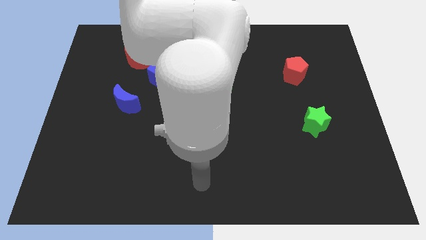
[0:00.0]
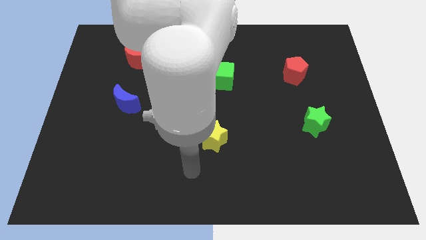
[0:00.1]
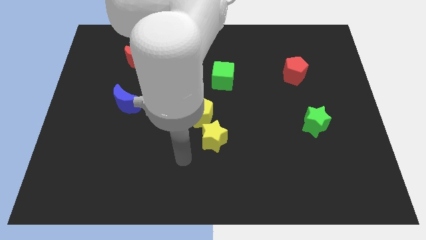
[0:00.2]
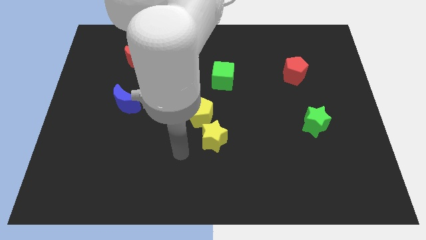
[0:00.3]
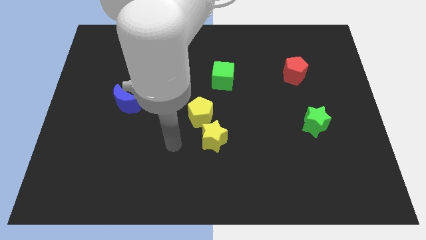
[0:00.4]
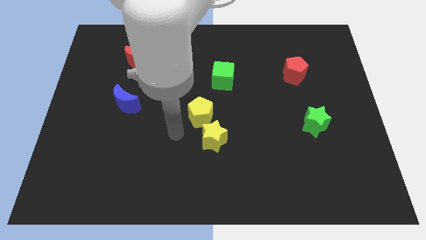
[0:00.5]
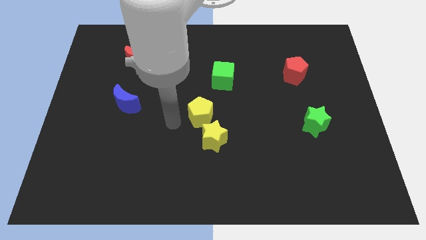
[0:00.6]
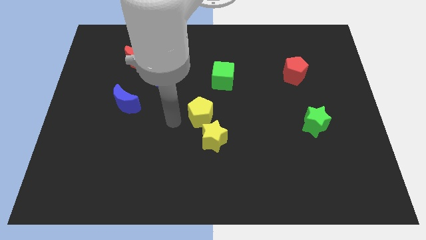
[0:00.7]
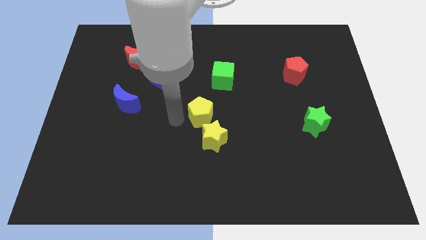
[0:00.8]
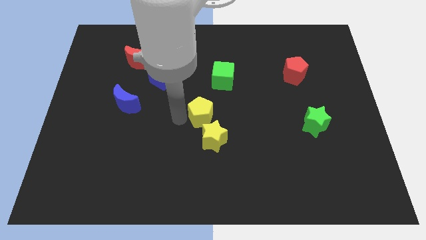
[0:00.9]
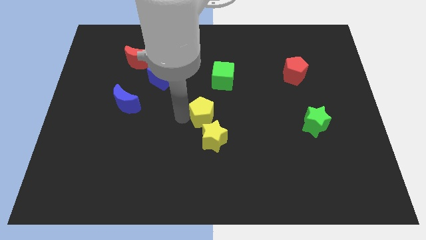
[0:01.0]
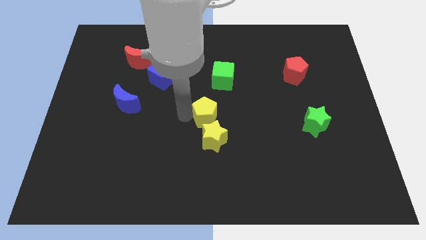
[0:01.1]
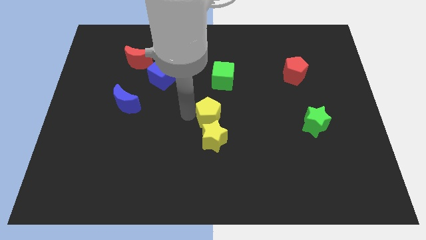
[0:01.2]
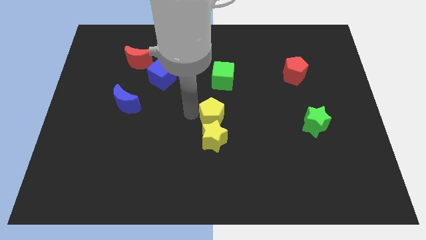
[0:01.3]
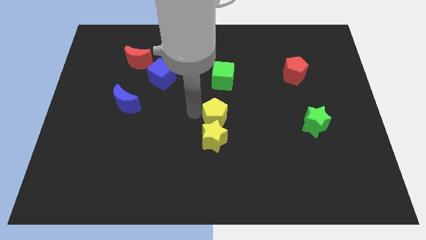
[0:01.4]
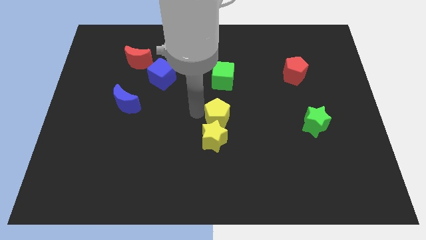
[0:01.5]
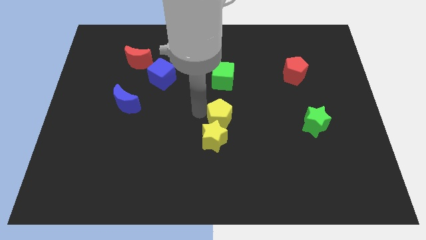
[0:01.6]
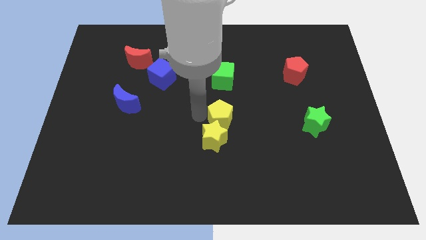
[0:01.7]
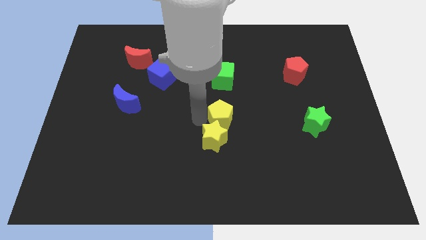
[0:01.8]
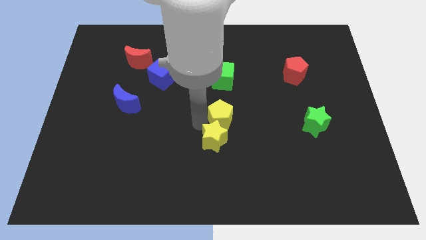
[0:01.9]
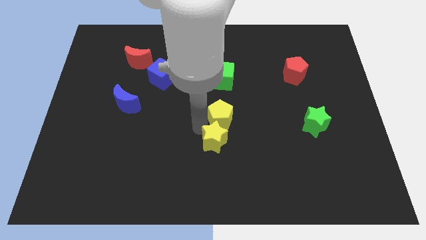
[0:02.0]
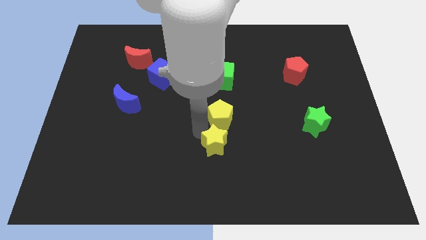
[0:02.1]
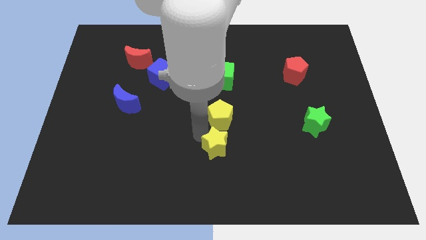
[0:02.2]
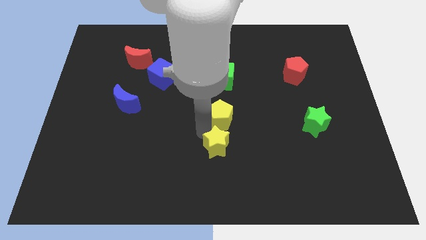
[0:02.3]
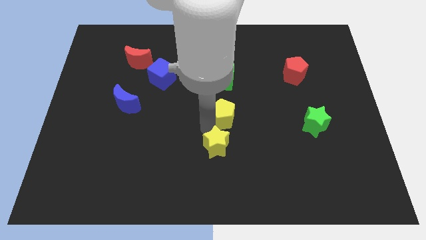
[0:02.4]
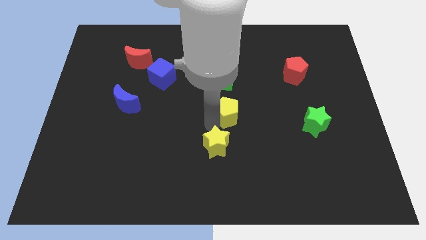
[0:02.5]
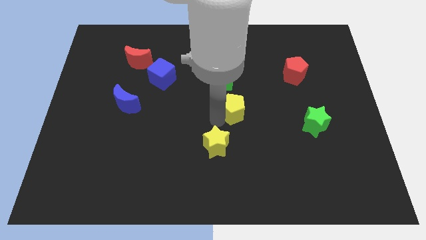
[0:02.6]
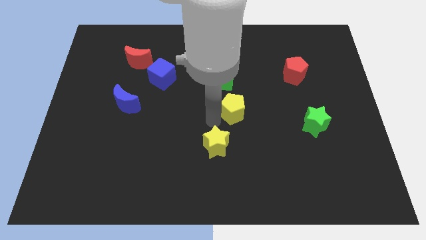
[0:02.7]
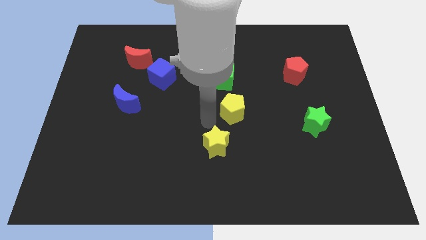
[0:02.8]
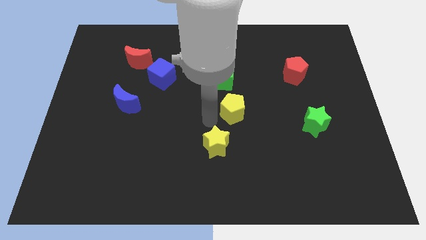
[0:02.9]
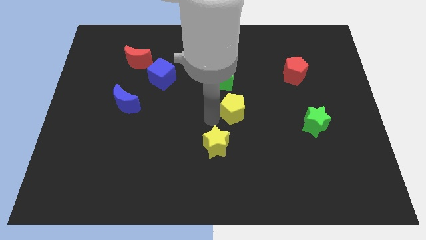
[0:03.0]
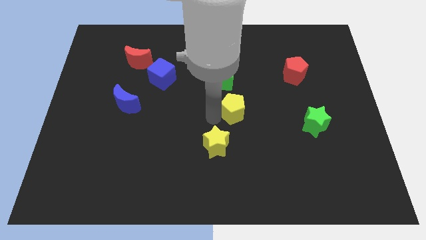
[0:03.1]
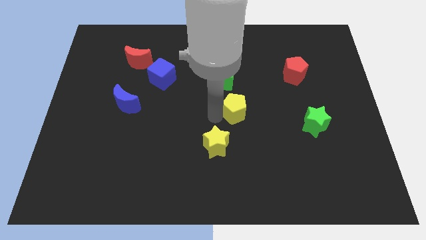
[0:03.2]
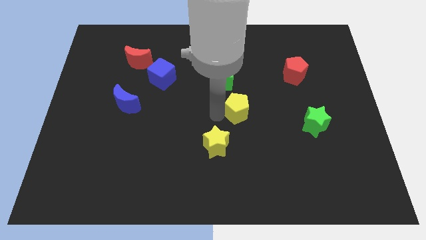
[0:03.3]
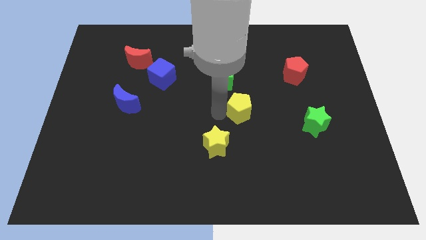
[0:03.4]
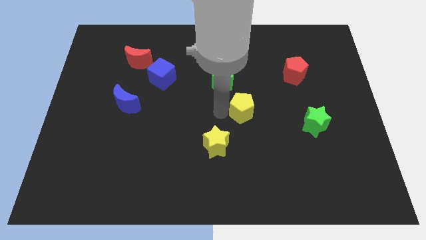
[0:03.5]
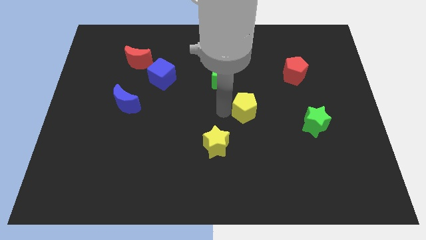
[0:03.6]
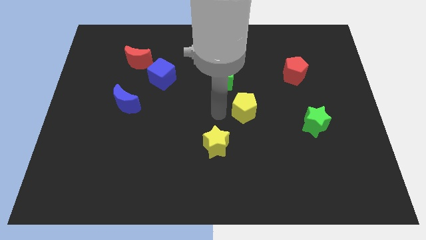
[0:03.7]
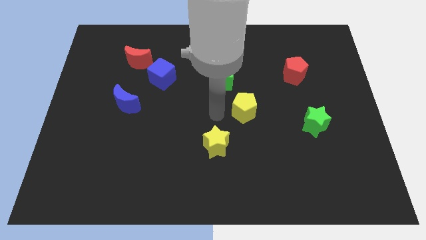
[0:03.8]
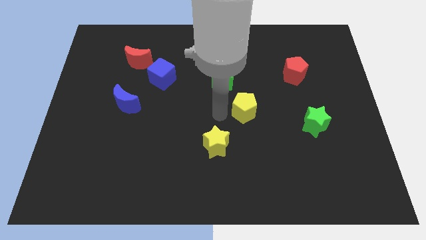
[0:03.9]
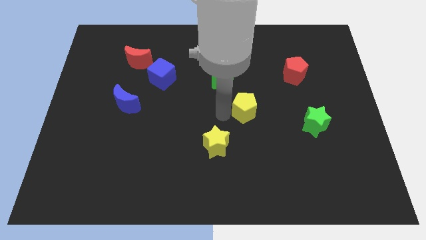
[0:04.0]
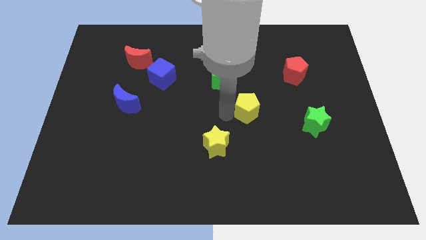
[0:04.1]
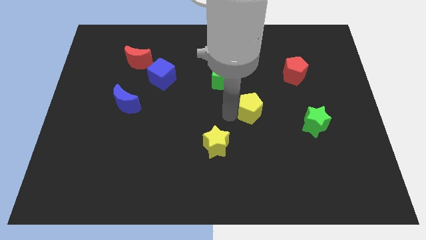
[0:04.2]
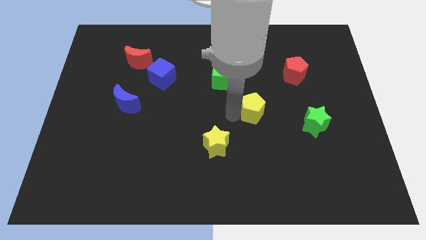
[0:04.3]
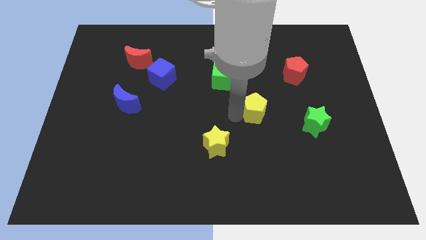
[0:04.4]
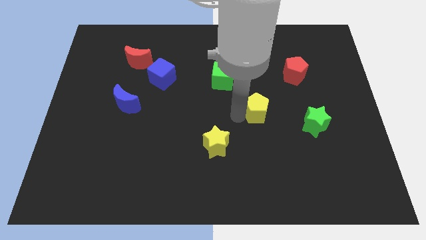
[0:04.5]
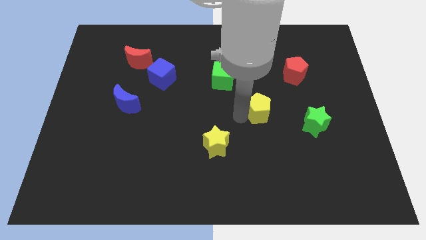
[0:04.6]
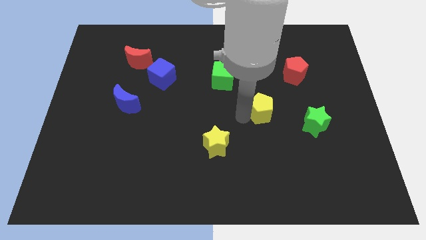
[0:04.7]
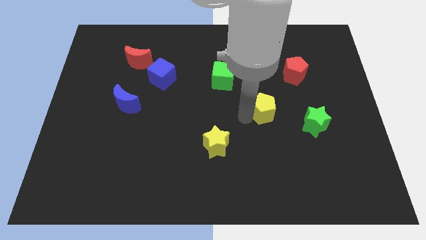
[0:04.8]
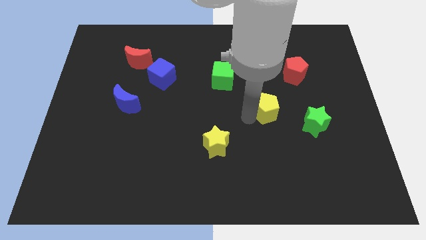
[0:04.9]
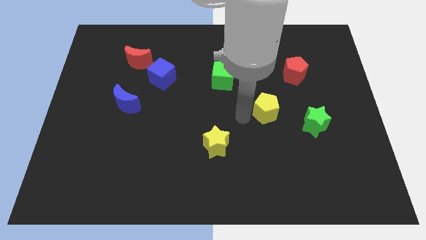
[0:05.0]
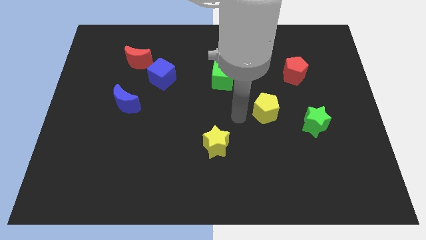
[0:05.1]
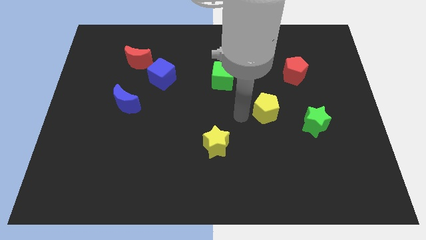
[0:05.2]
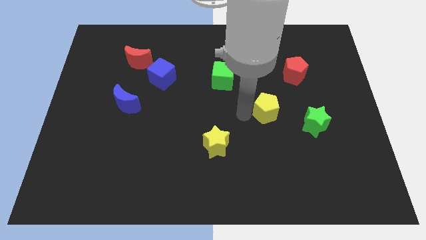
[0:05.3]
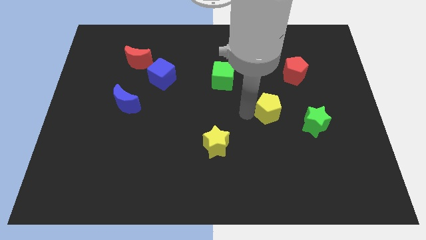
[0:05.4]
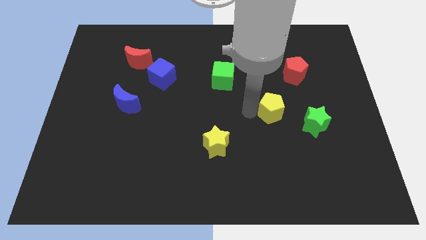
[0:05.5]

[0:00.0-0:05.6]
push the yellow pentagon to the top left side of the green star

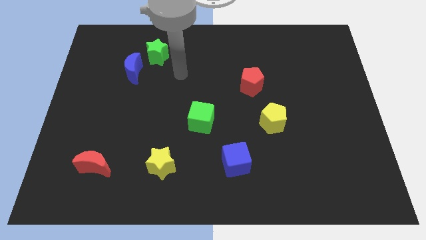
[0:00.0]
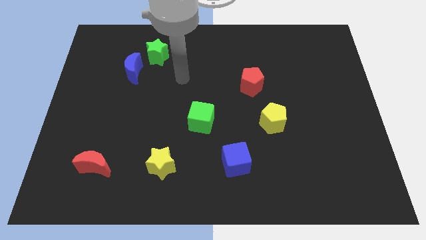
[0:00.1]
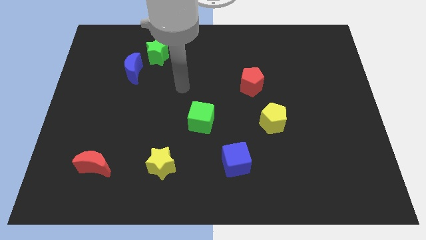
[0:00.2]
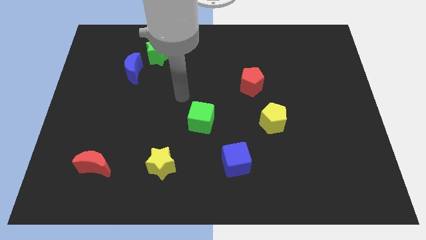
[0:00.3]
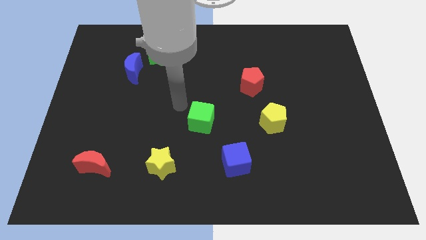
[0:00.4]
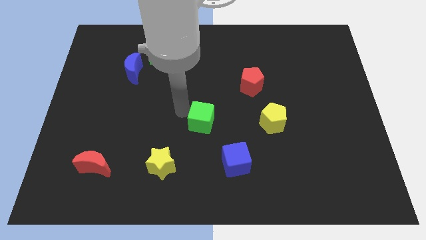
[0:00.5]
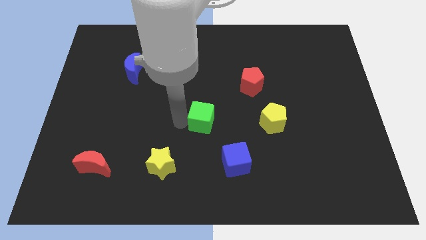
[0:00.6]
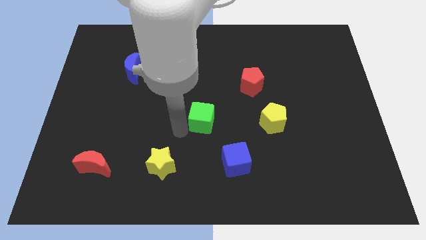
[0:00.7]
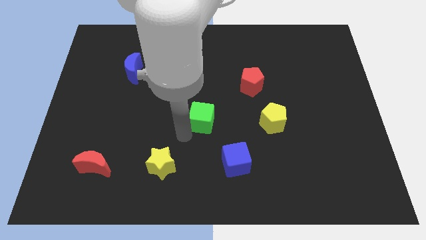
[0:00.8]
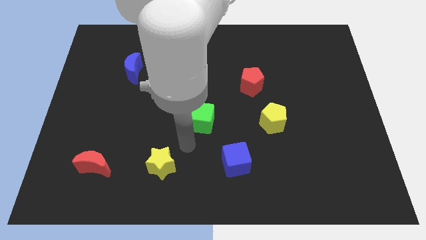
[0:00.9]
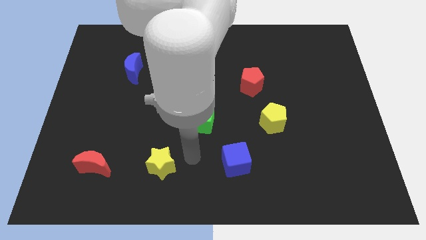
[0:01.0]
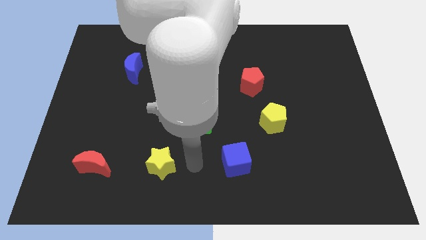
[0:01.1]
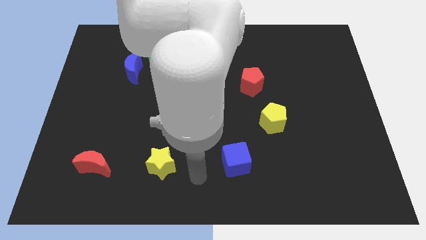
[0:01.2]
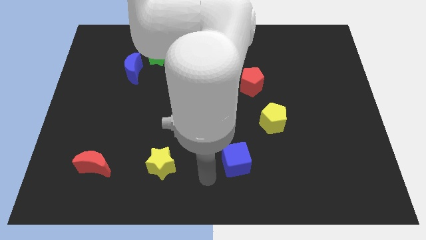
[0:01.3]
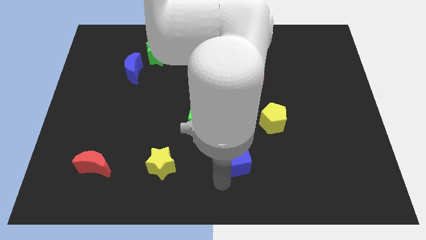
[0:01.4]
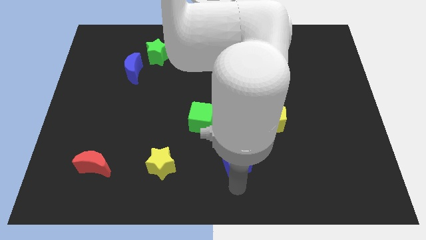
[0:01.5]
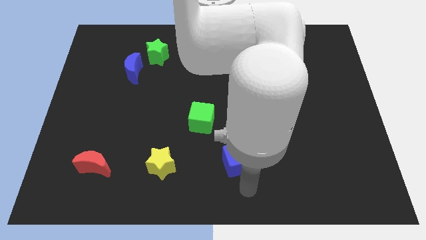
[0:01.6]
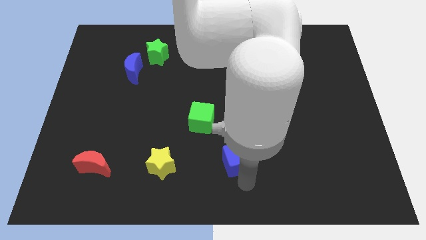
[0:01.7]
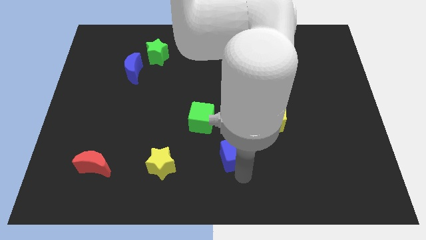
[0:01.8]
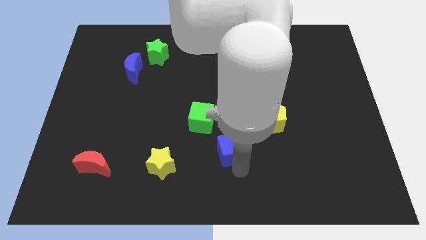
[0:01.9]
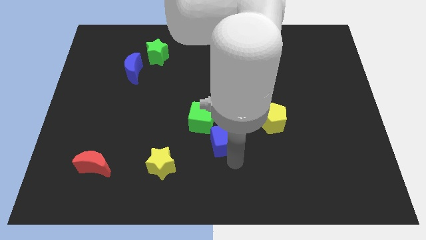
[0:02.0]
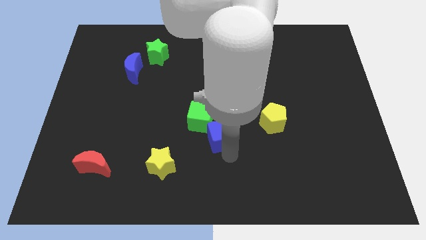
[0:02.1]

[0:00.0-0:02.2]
push the blue cube left of the yellow pentagon
